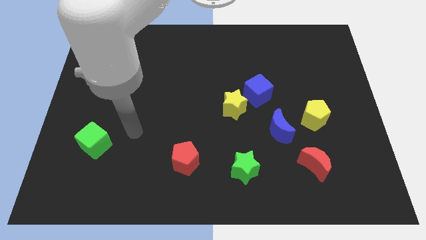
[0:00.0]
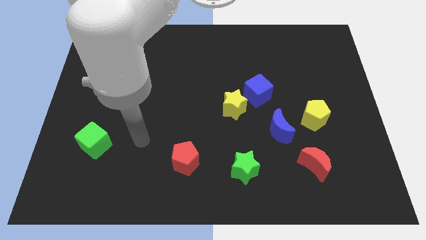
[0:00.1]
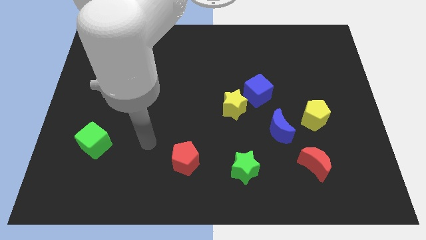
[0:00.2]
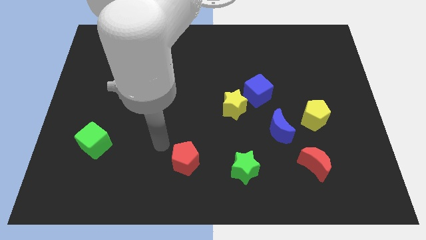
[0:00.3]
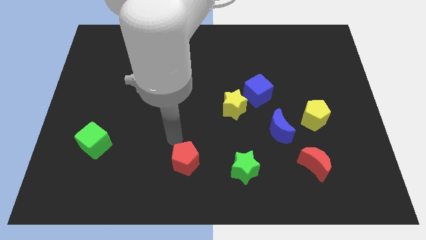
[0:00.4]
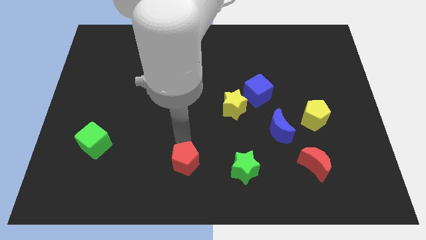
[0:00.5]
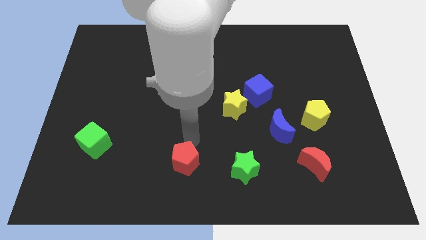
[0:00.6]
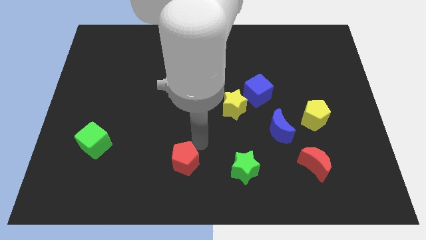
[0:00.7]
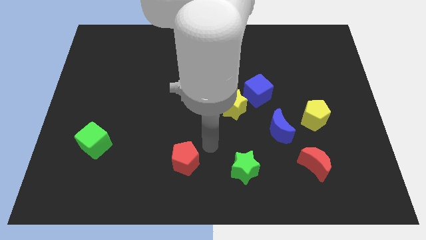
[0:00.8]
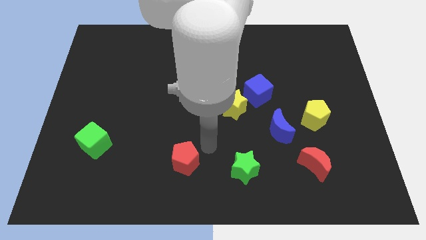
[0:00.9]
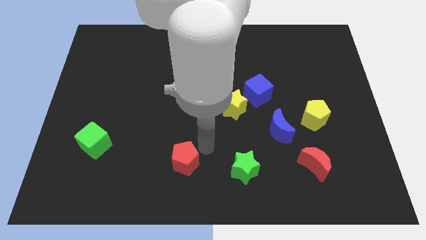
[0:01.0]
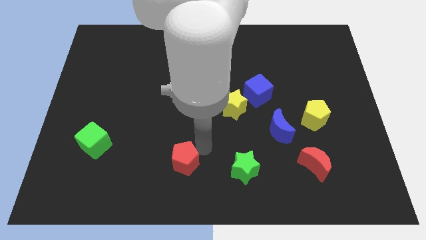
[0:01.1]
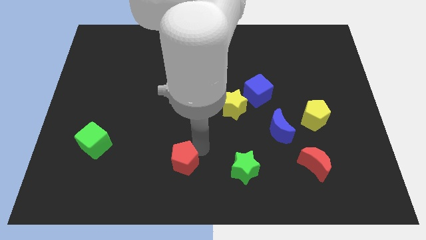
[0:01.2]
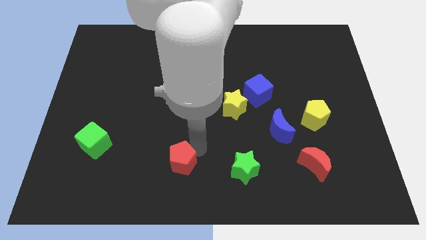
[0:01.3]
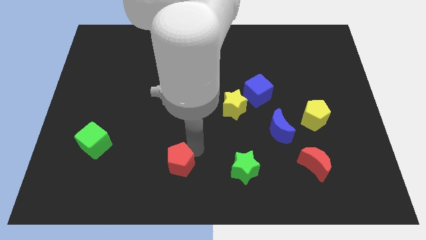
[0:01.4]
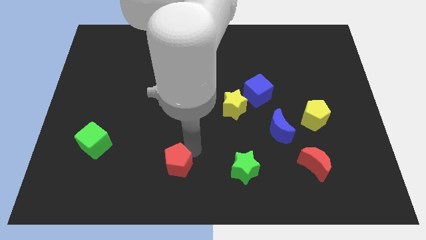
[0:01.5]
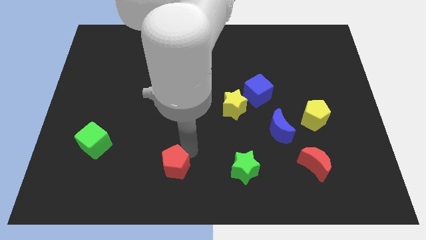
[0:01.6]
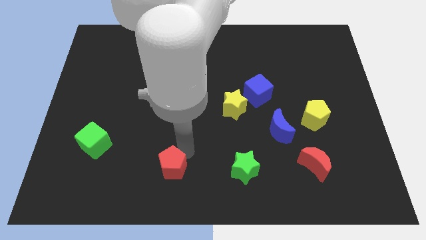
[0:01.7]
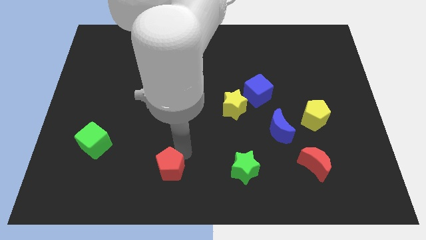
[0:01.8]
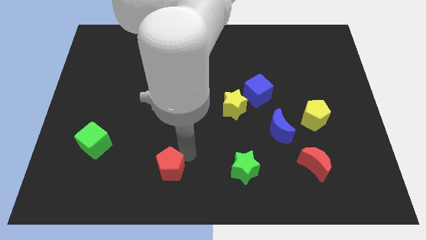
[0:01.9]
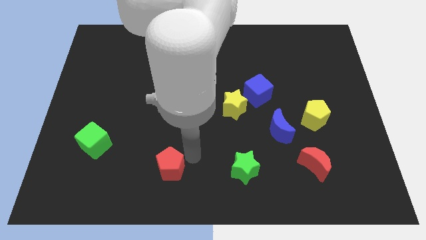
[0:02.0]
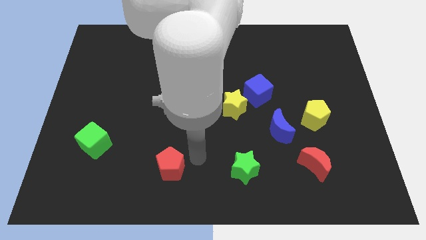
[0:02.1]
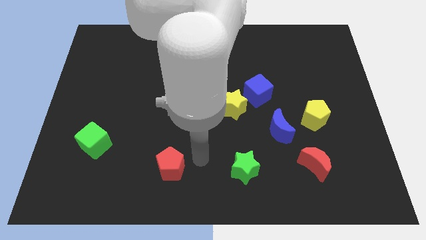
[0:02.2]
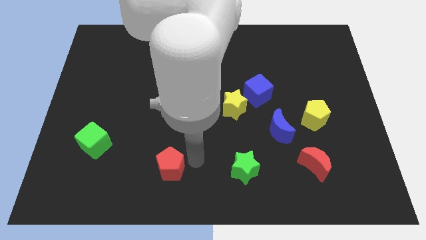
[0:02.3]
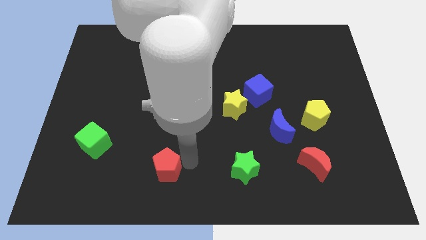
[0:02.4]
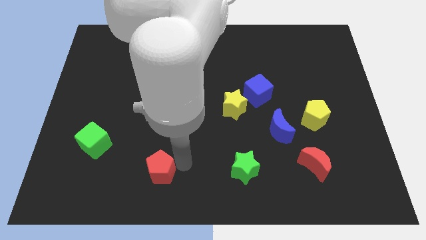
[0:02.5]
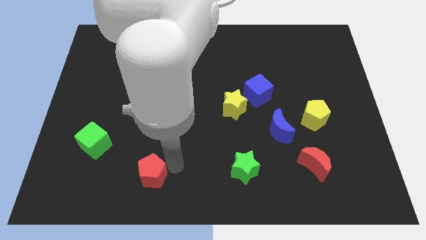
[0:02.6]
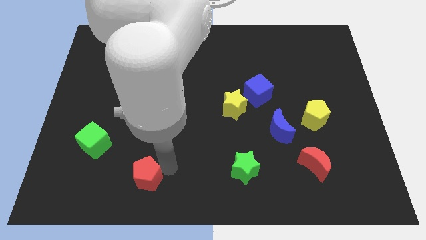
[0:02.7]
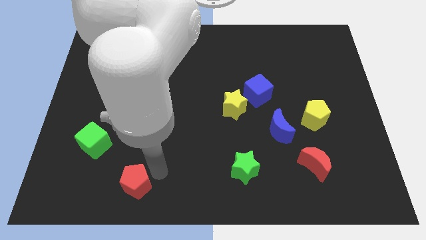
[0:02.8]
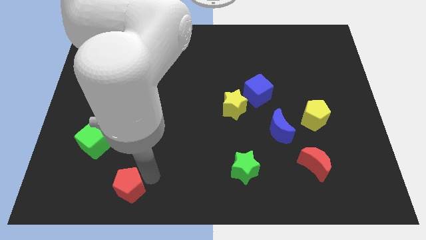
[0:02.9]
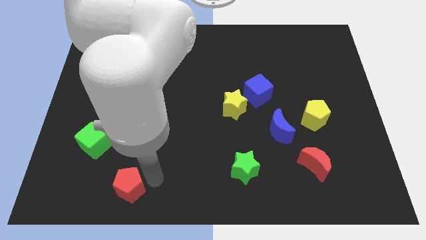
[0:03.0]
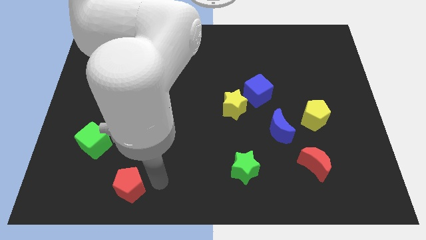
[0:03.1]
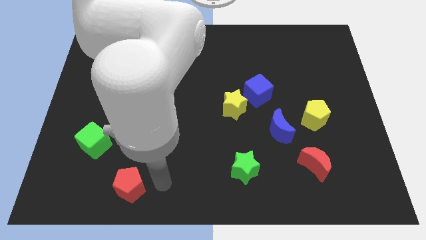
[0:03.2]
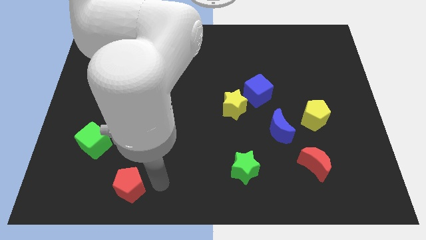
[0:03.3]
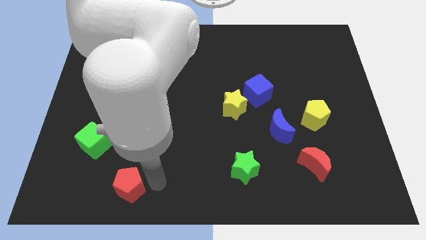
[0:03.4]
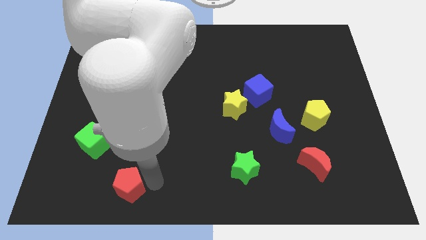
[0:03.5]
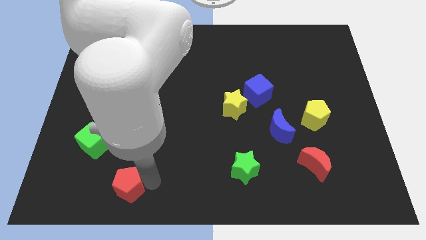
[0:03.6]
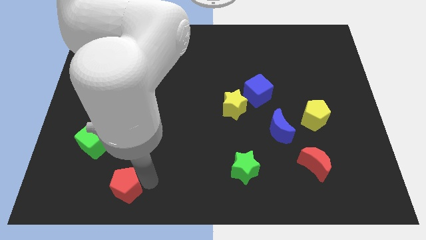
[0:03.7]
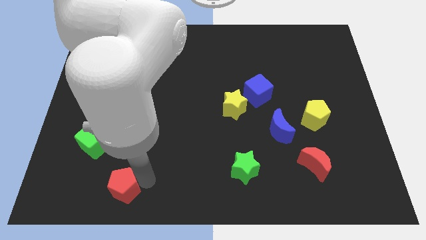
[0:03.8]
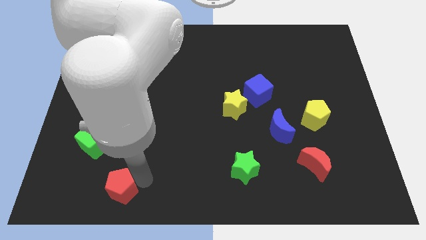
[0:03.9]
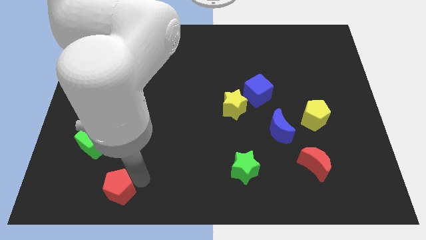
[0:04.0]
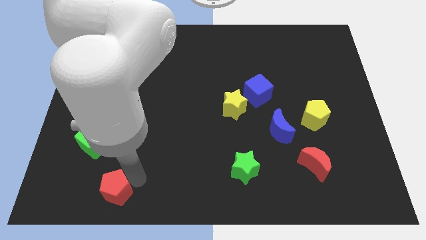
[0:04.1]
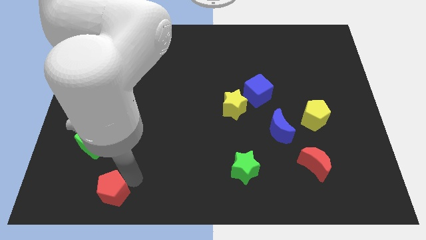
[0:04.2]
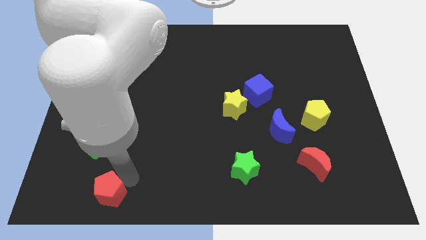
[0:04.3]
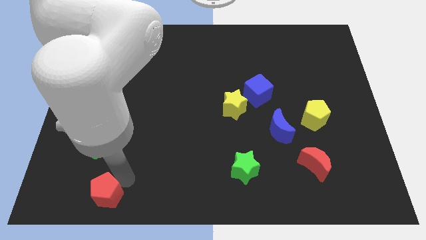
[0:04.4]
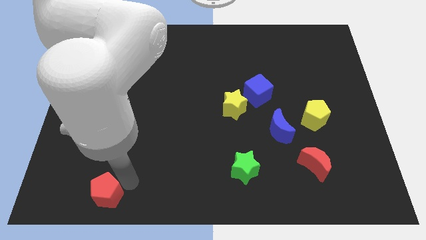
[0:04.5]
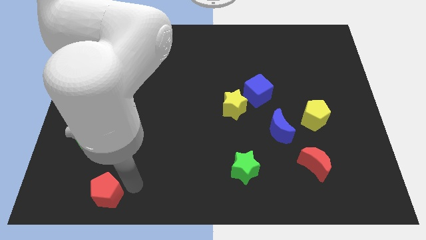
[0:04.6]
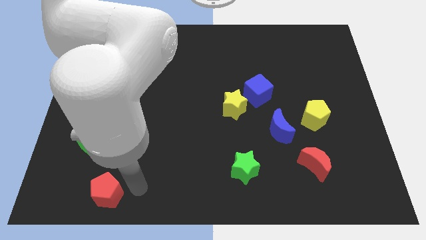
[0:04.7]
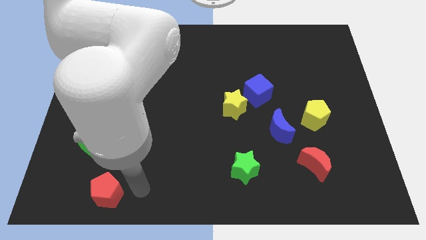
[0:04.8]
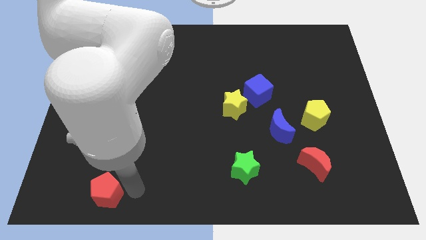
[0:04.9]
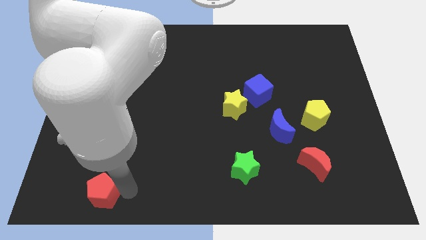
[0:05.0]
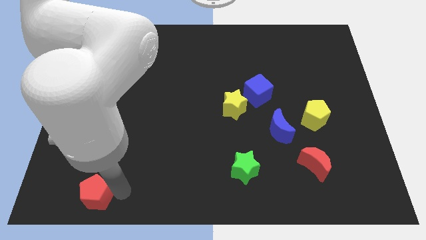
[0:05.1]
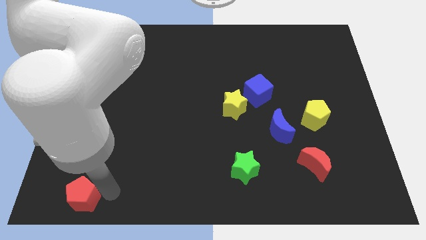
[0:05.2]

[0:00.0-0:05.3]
put the red pentagon to the lower left corner

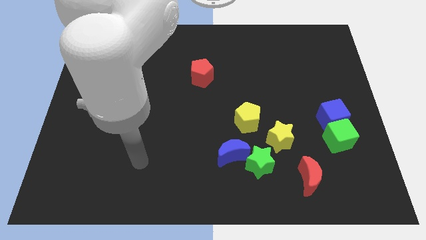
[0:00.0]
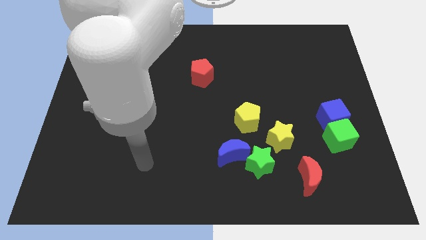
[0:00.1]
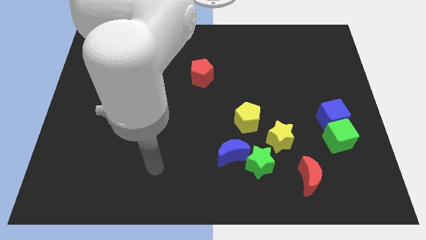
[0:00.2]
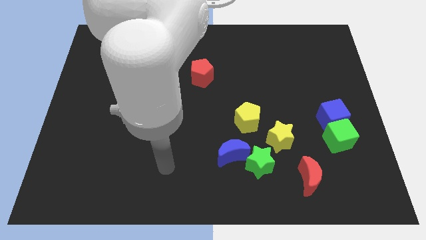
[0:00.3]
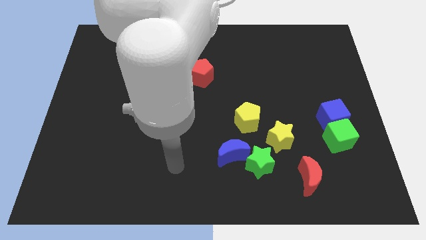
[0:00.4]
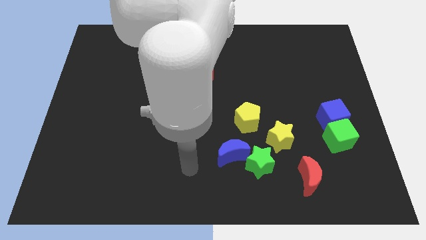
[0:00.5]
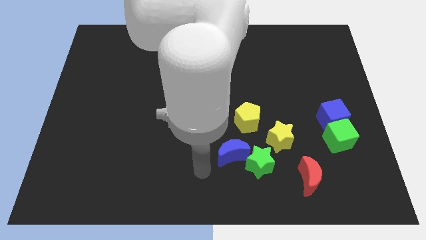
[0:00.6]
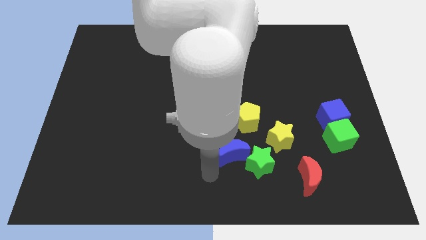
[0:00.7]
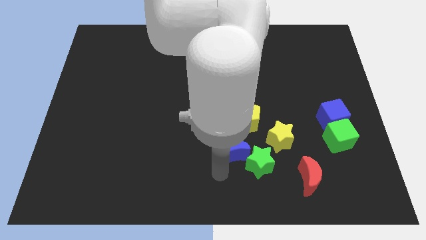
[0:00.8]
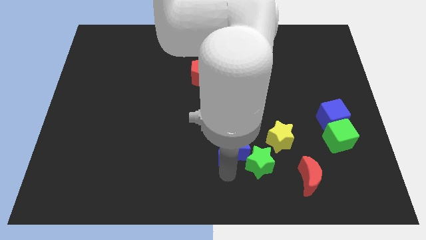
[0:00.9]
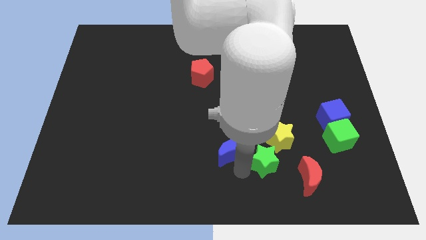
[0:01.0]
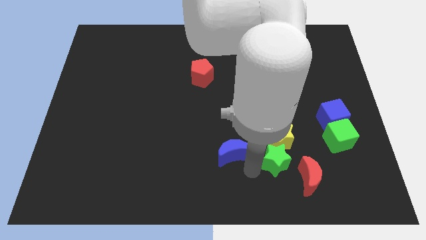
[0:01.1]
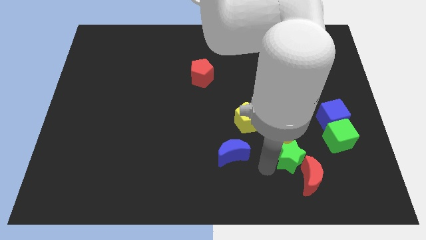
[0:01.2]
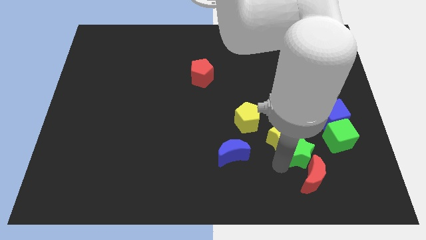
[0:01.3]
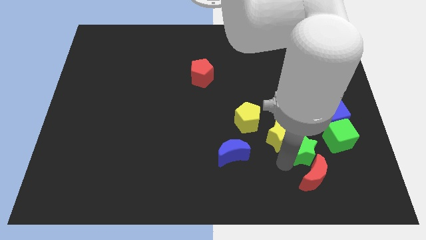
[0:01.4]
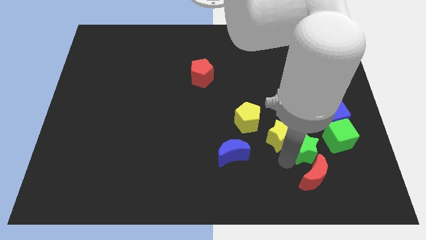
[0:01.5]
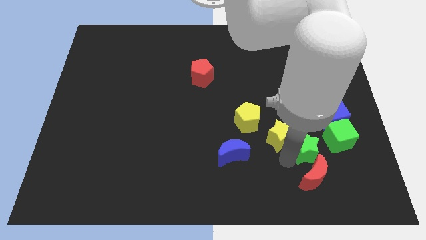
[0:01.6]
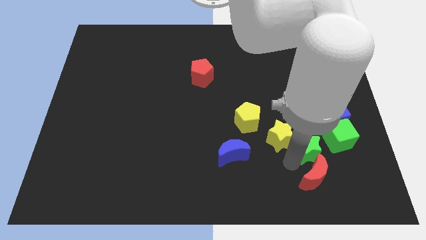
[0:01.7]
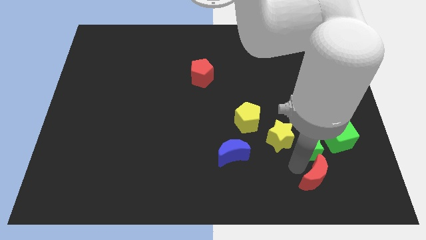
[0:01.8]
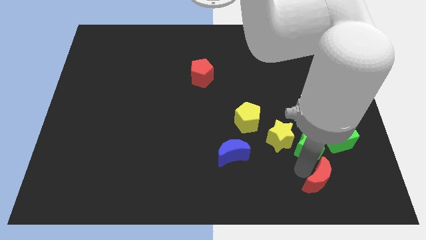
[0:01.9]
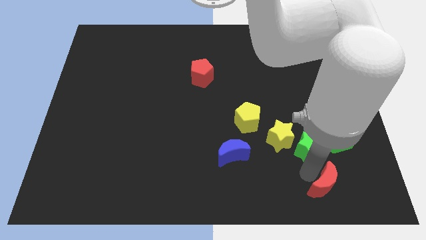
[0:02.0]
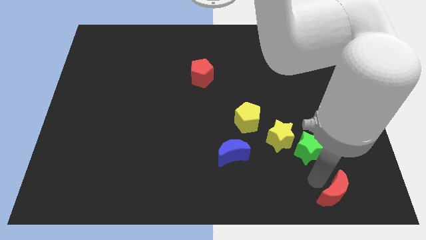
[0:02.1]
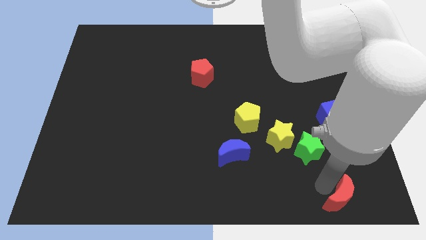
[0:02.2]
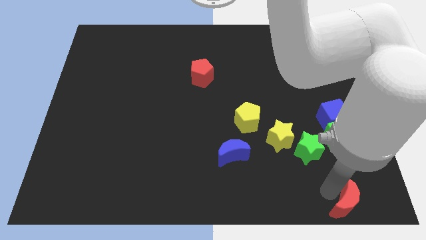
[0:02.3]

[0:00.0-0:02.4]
put the red moon to the bottom right corner
